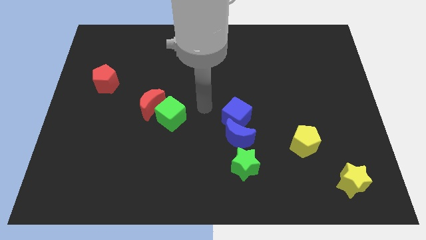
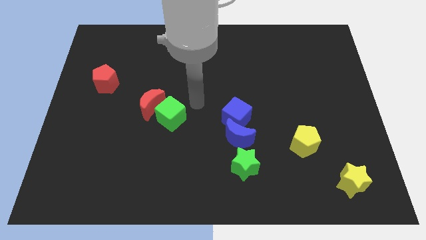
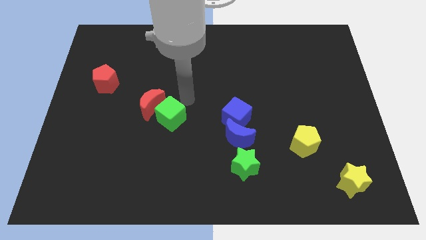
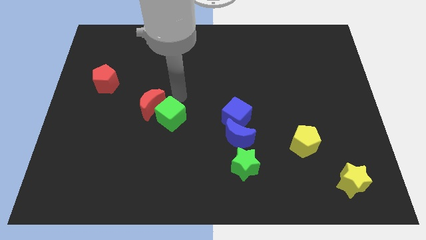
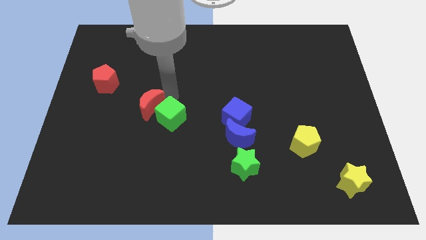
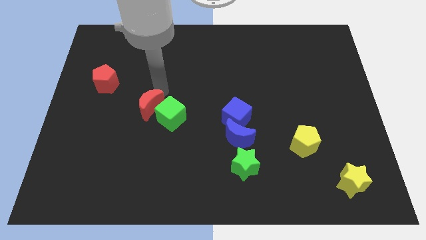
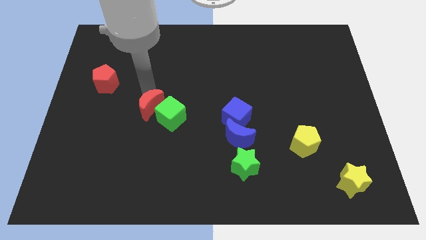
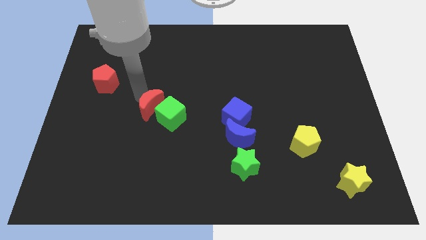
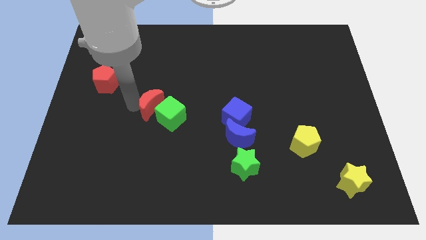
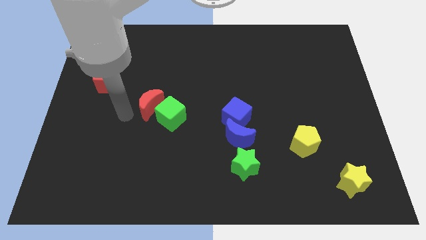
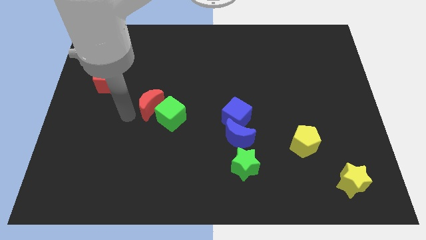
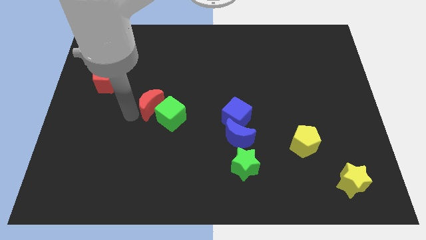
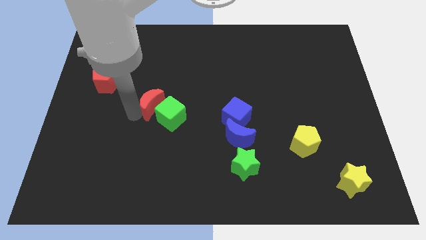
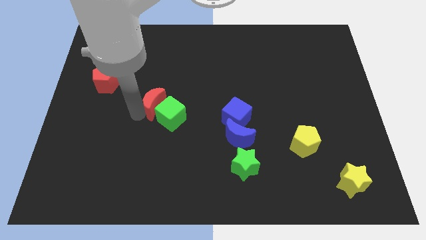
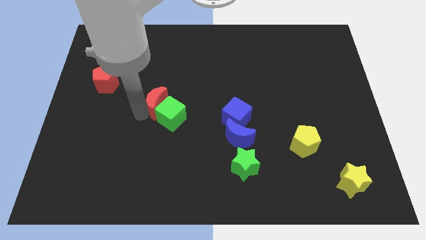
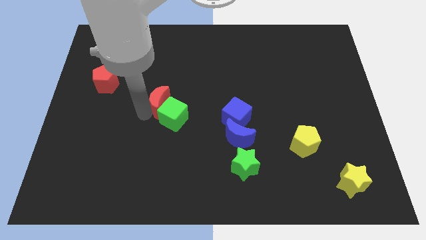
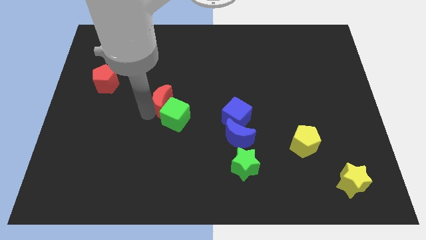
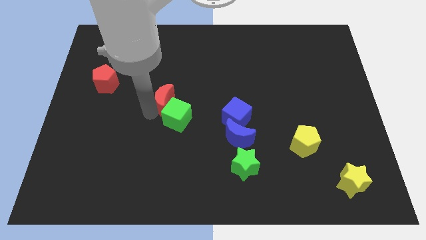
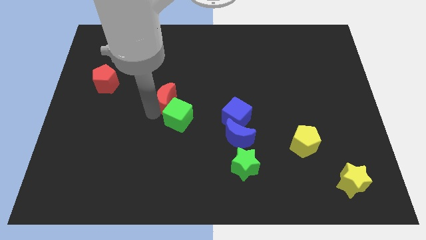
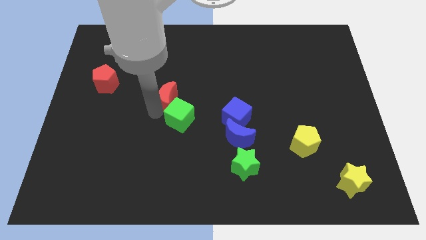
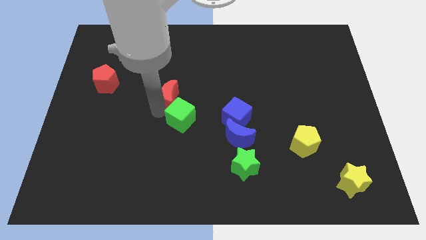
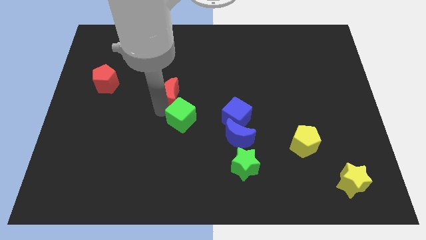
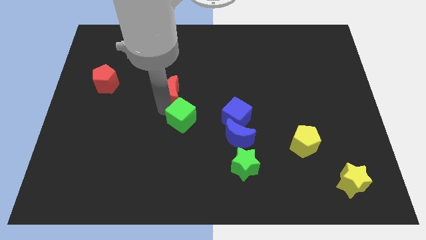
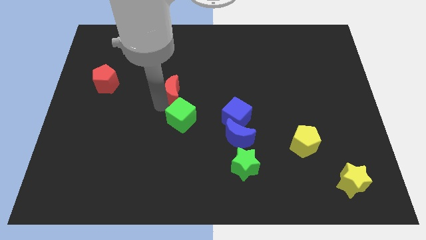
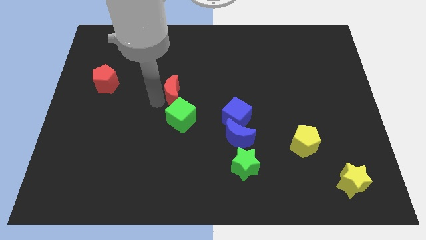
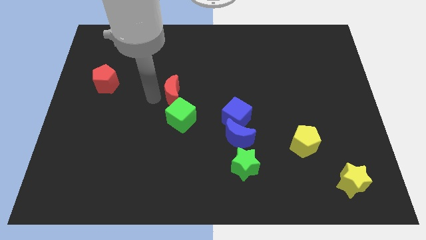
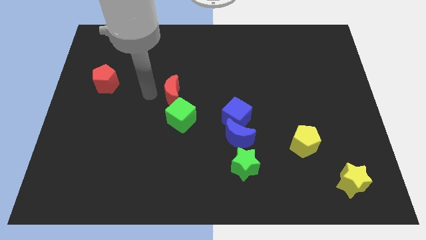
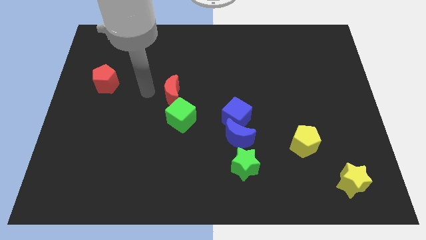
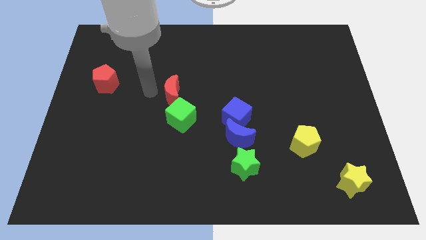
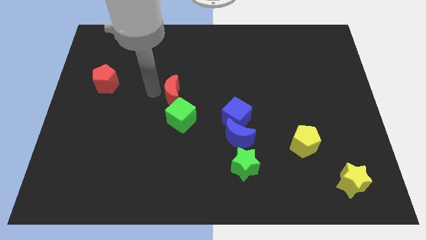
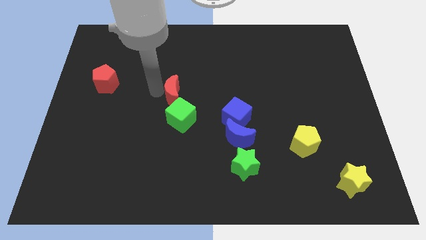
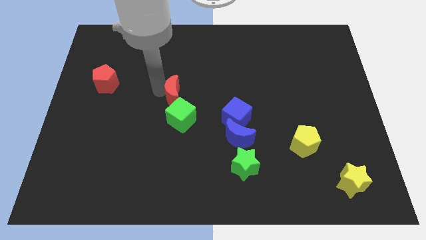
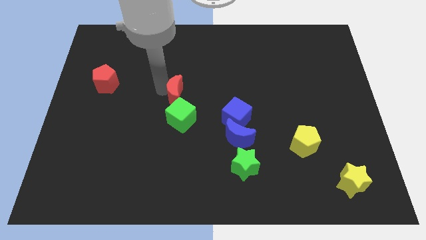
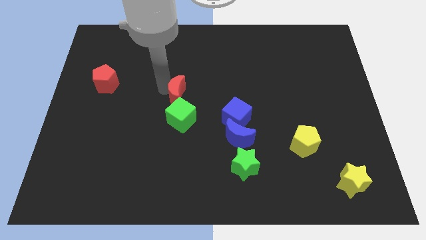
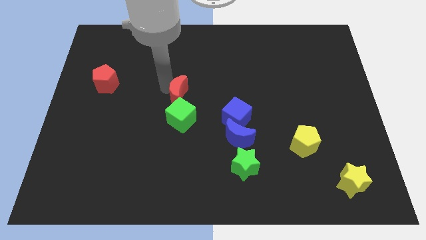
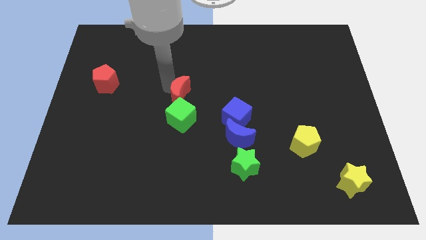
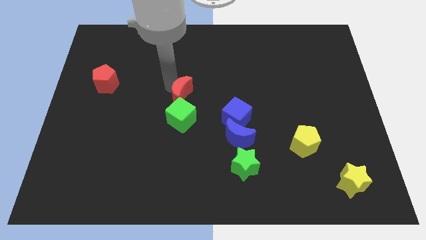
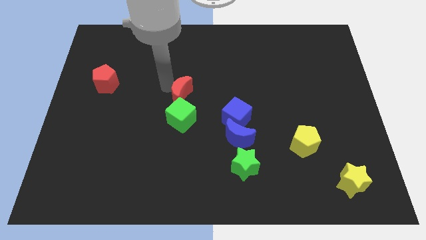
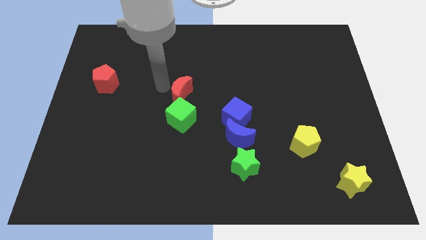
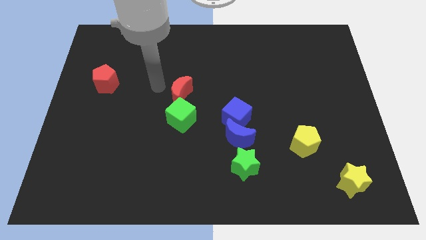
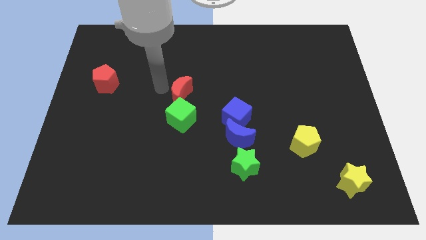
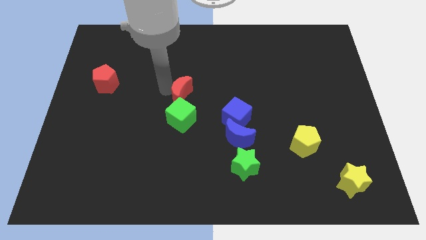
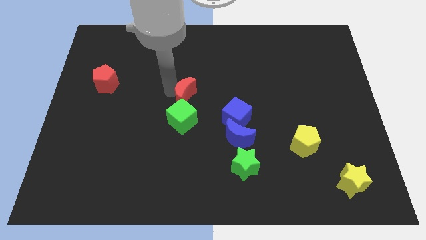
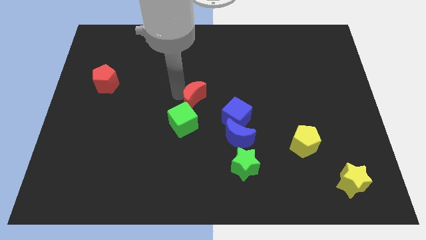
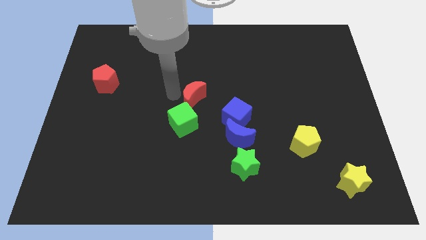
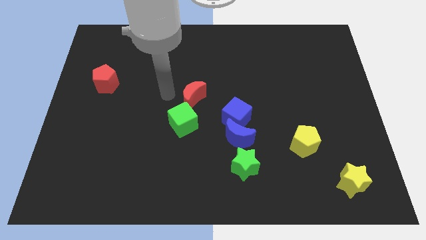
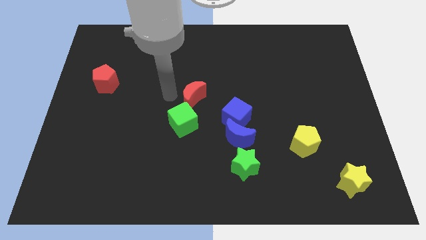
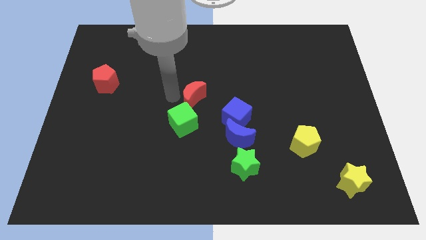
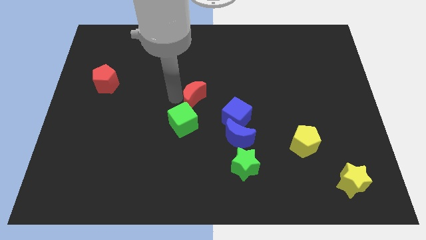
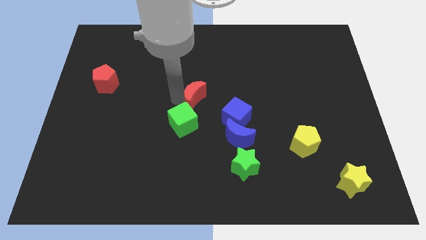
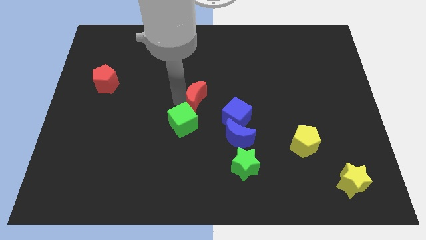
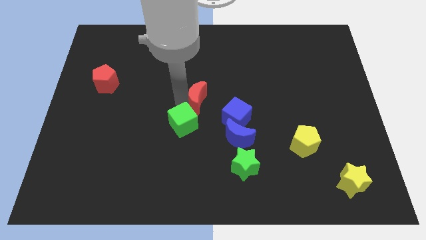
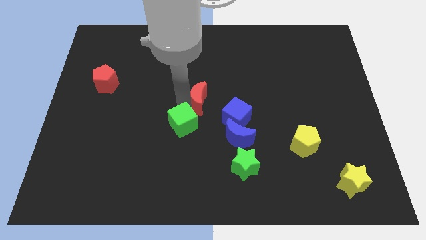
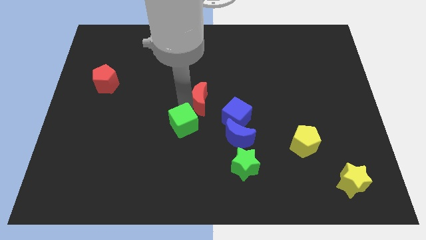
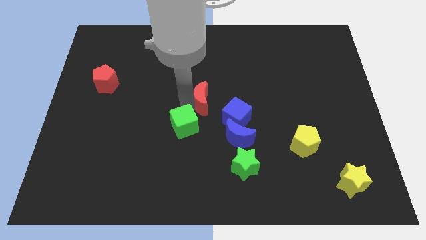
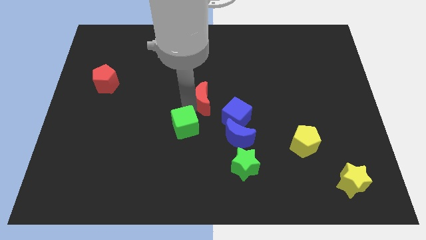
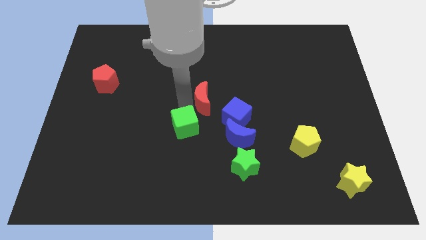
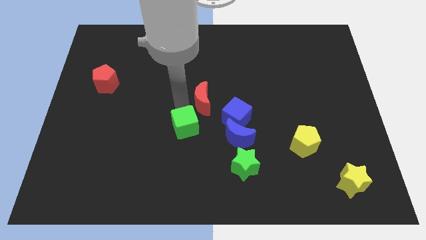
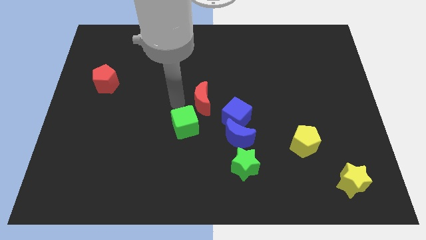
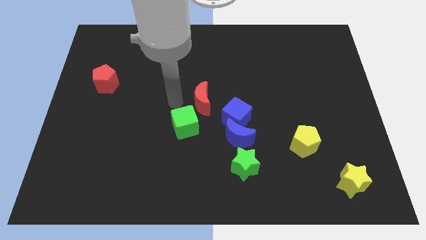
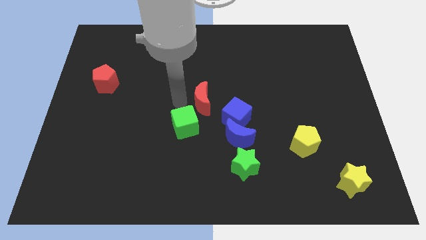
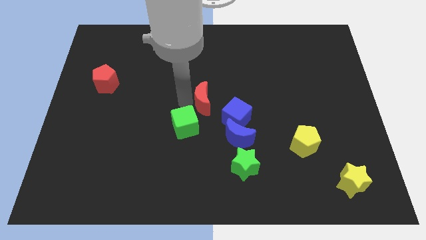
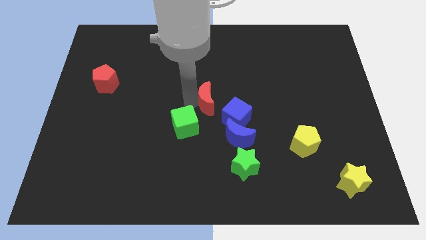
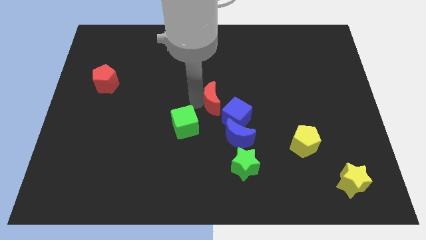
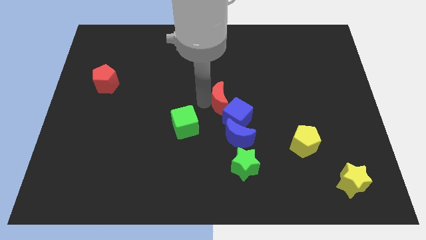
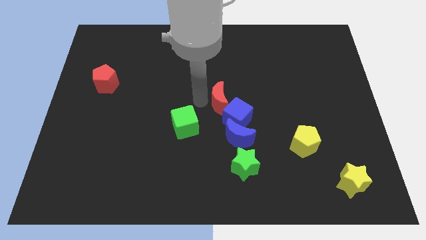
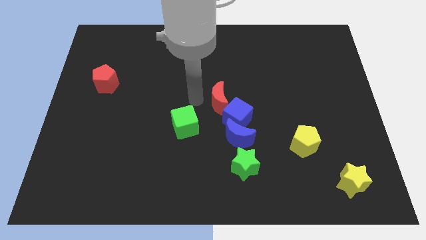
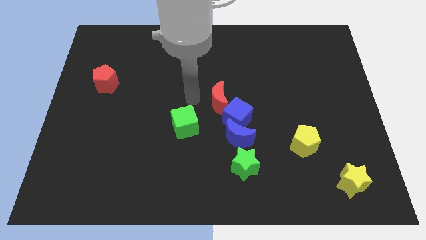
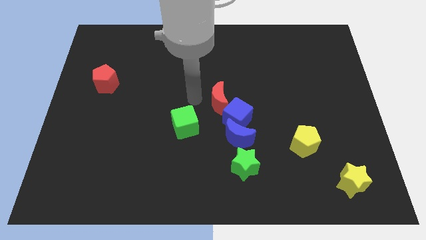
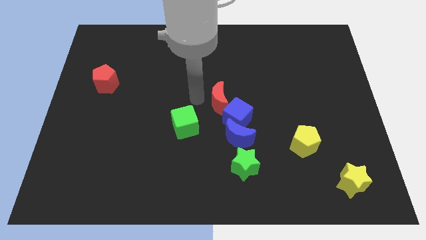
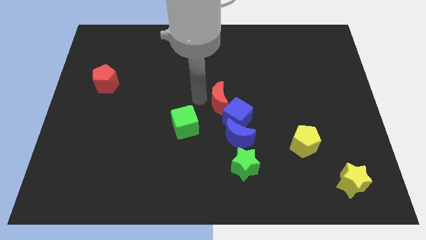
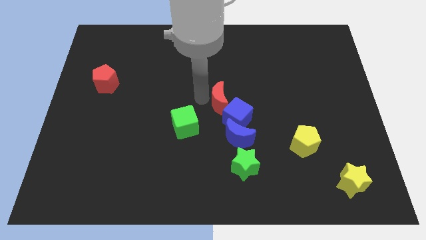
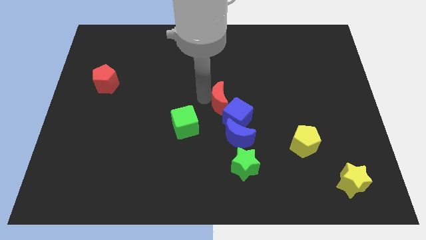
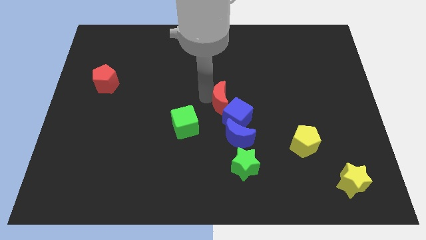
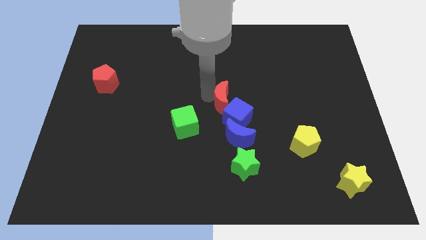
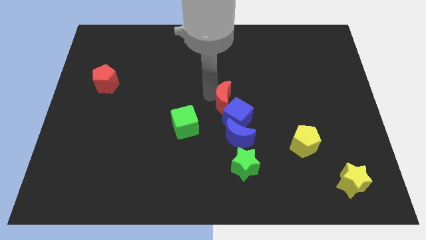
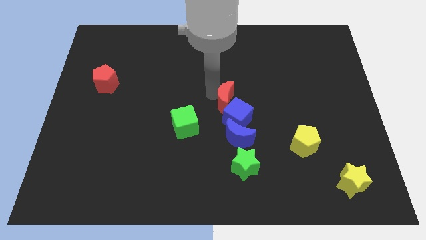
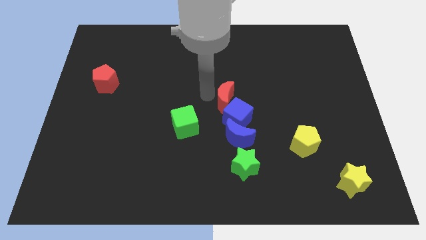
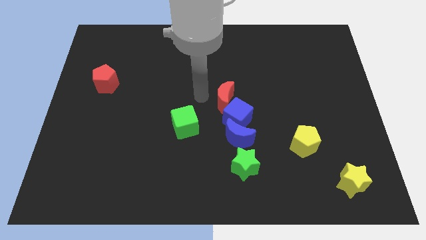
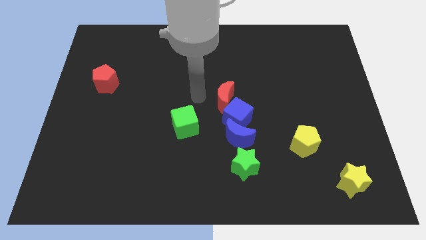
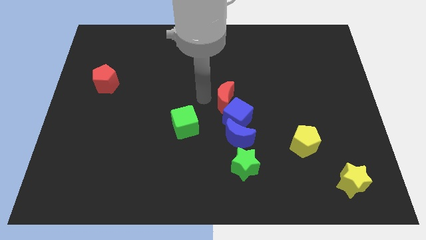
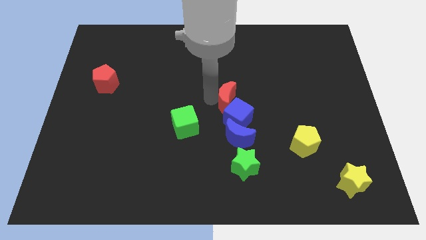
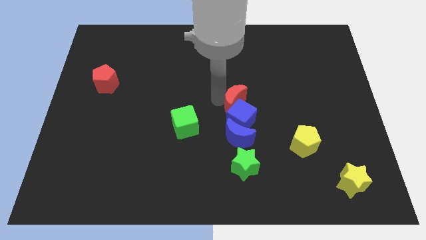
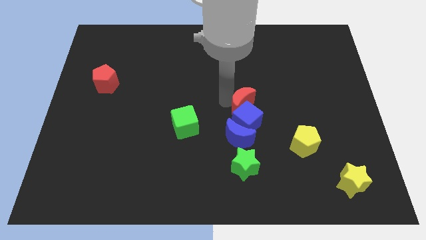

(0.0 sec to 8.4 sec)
move the red moon right
